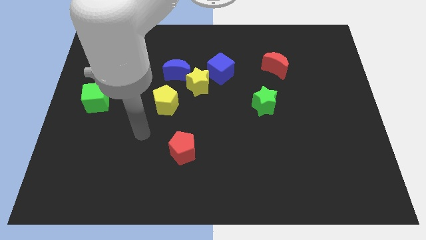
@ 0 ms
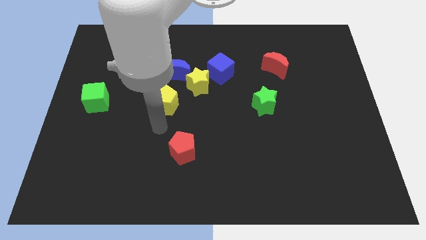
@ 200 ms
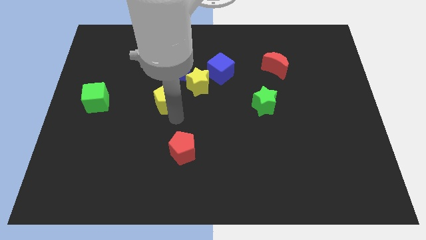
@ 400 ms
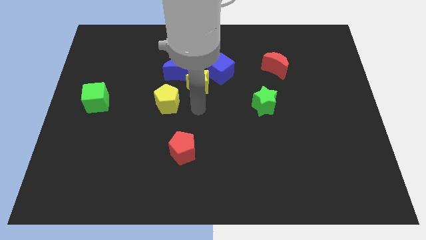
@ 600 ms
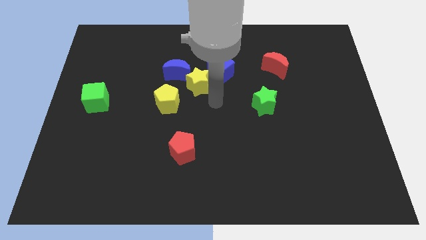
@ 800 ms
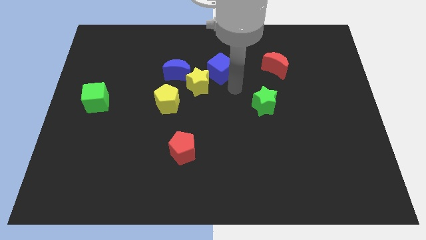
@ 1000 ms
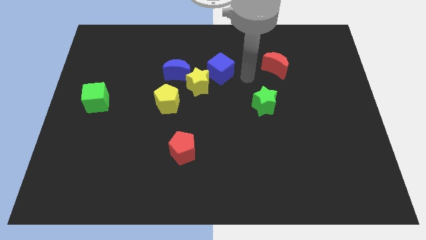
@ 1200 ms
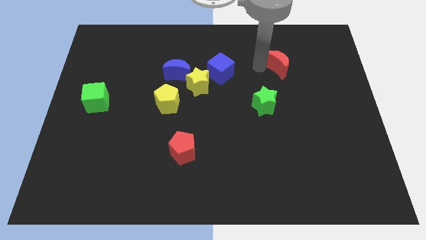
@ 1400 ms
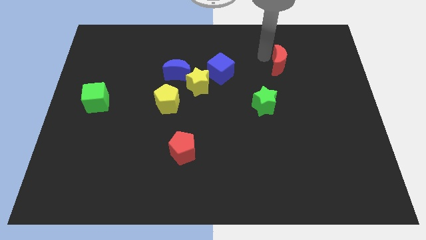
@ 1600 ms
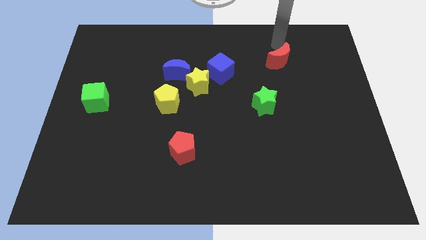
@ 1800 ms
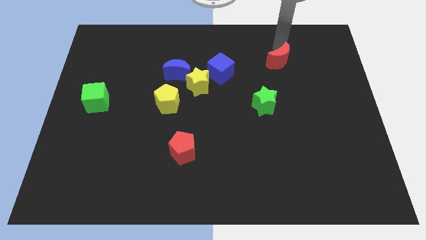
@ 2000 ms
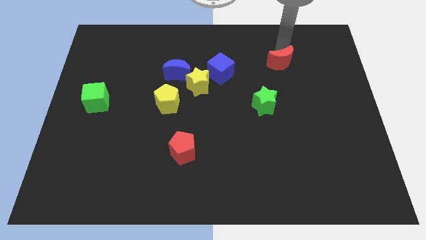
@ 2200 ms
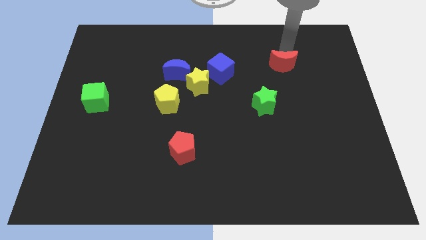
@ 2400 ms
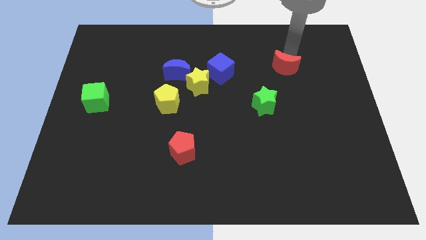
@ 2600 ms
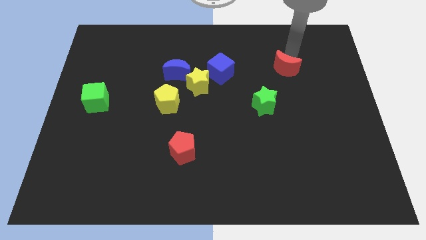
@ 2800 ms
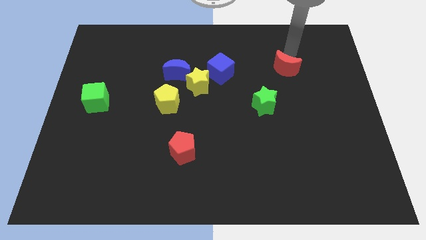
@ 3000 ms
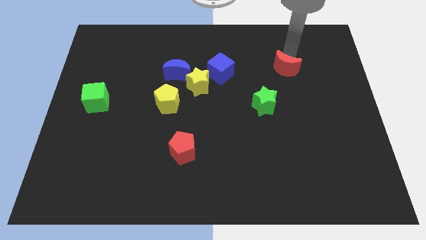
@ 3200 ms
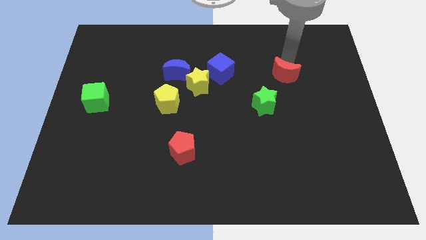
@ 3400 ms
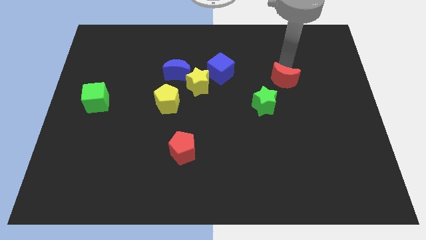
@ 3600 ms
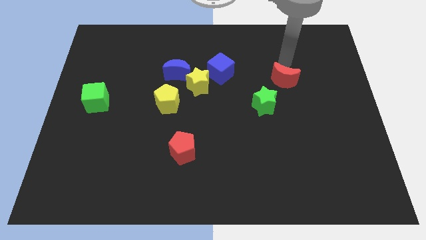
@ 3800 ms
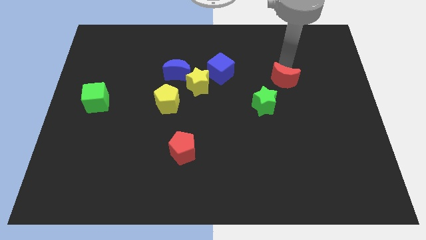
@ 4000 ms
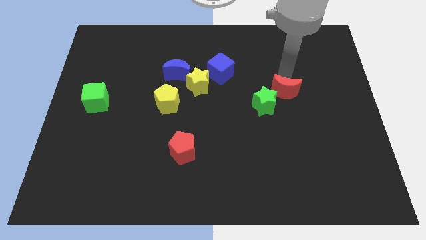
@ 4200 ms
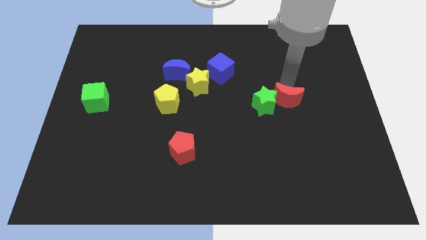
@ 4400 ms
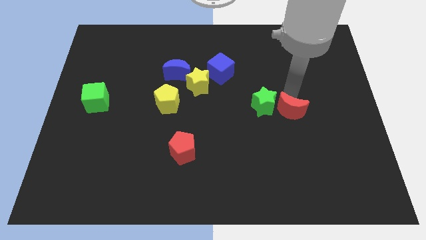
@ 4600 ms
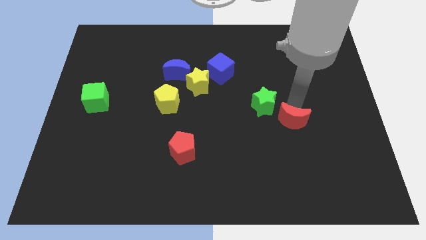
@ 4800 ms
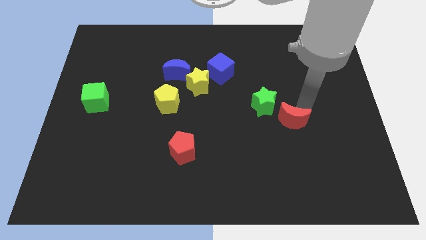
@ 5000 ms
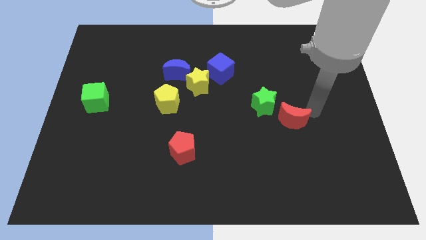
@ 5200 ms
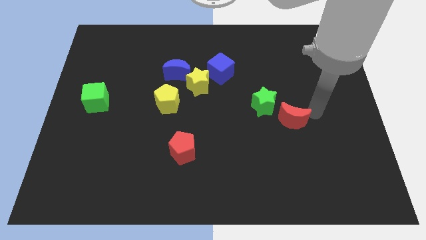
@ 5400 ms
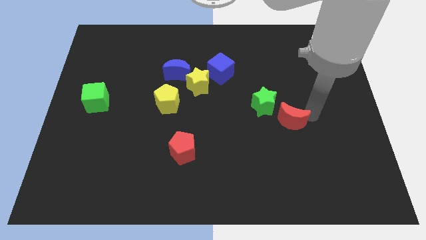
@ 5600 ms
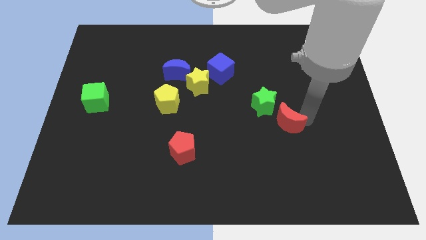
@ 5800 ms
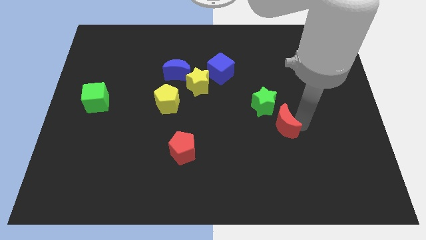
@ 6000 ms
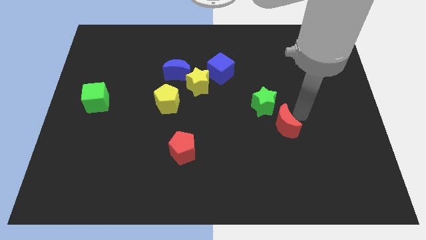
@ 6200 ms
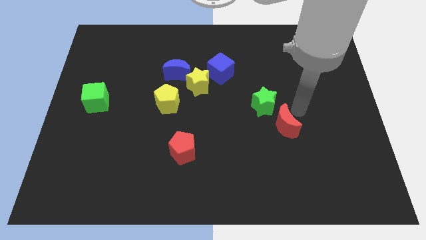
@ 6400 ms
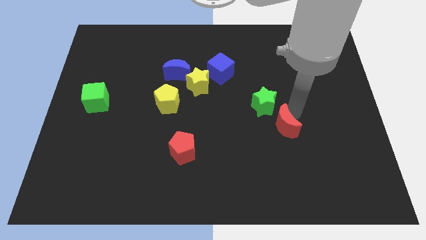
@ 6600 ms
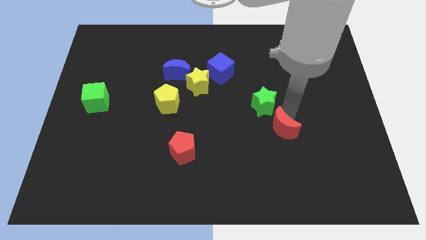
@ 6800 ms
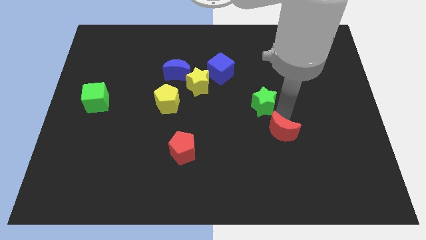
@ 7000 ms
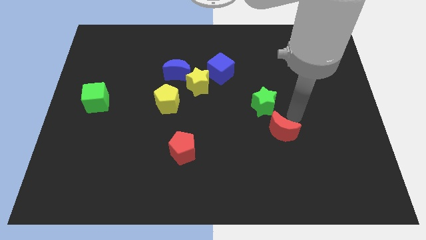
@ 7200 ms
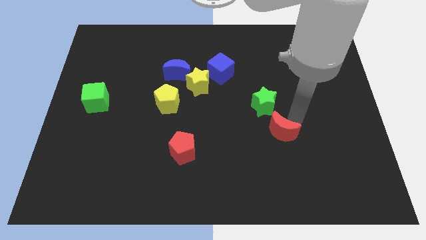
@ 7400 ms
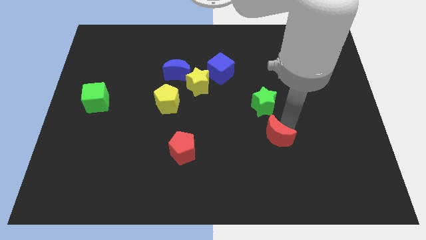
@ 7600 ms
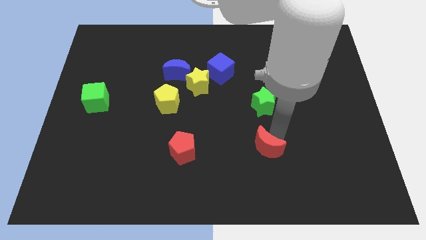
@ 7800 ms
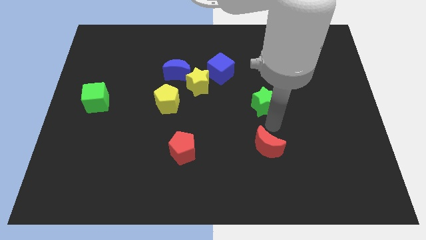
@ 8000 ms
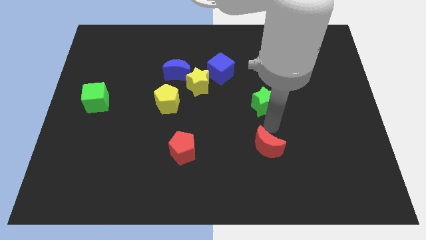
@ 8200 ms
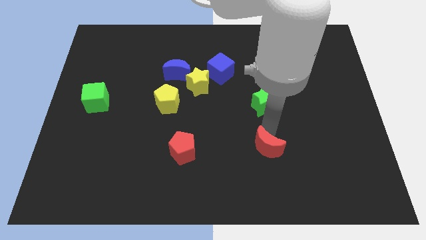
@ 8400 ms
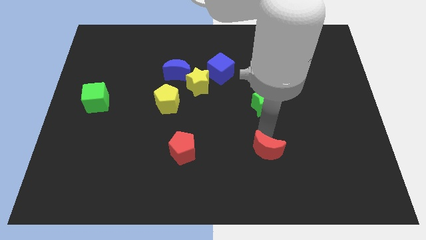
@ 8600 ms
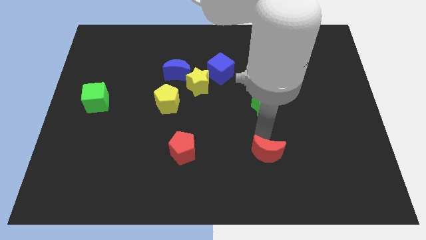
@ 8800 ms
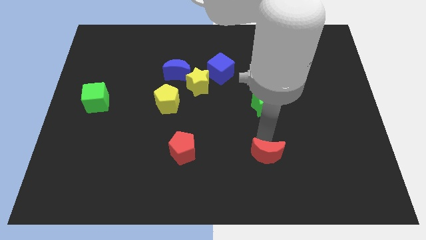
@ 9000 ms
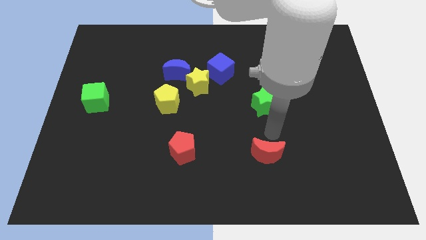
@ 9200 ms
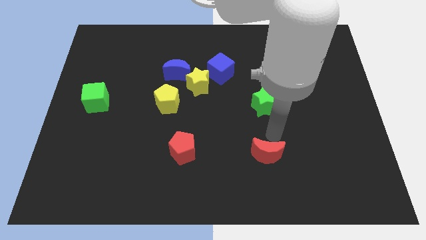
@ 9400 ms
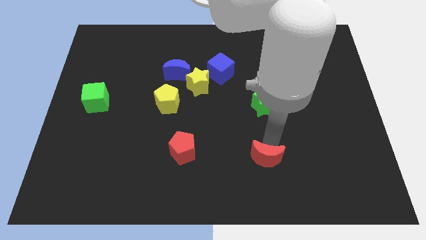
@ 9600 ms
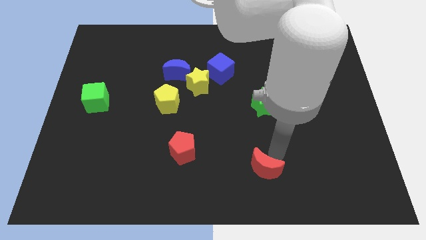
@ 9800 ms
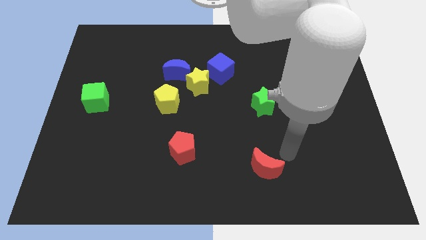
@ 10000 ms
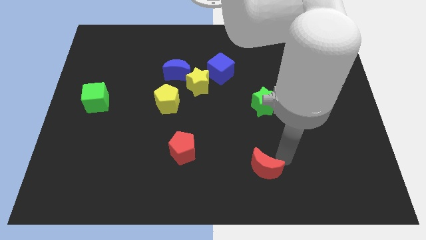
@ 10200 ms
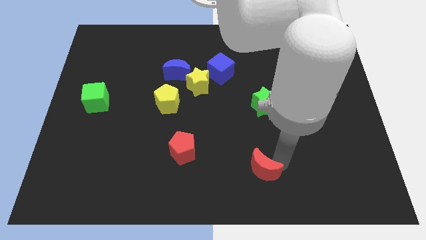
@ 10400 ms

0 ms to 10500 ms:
put the red moon to the bottom side

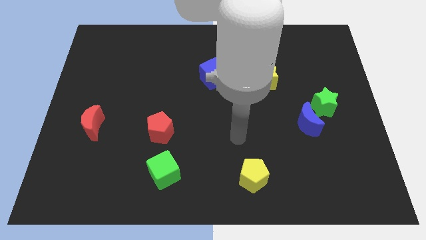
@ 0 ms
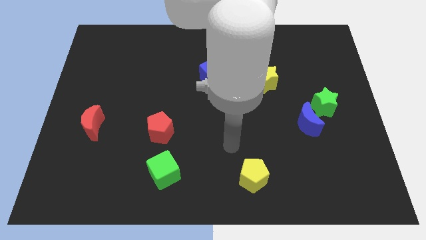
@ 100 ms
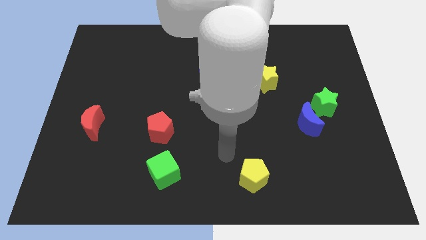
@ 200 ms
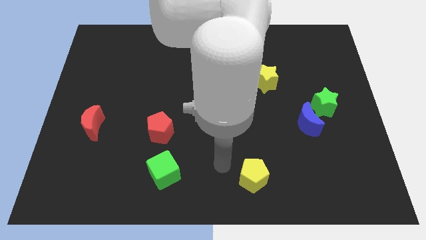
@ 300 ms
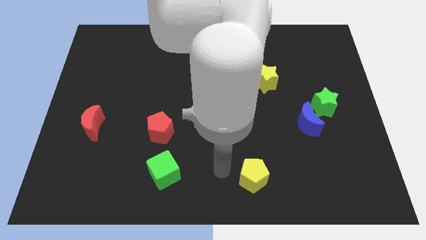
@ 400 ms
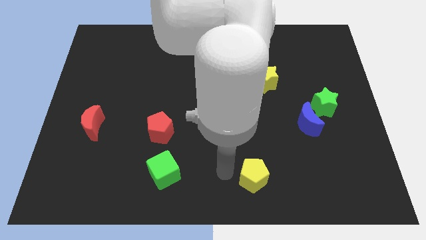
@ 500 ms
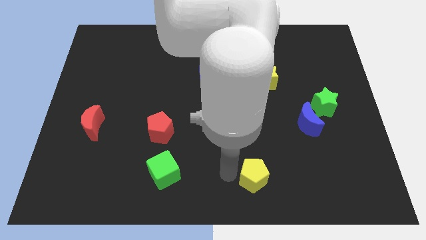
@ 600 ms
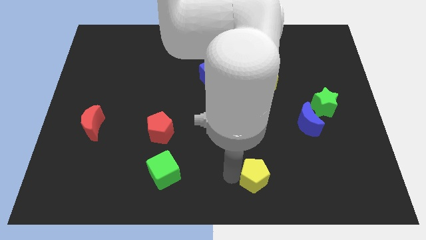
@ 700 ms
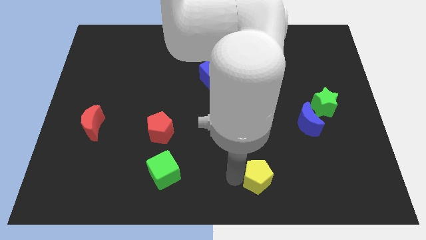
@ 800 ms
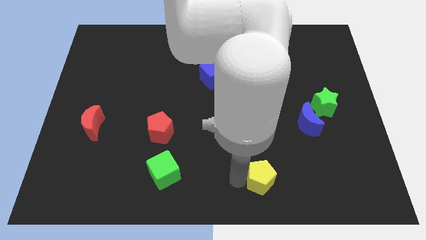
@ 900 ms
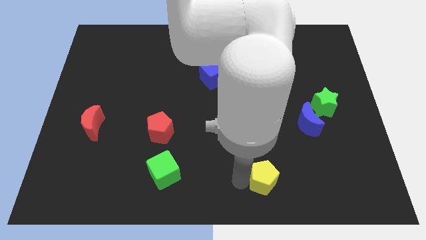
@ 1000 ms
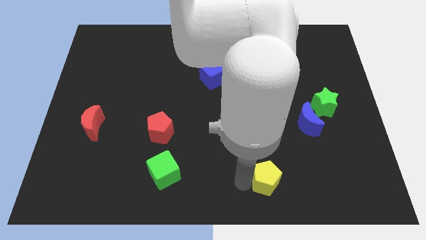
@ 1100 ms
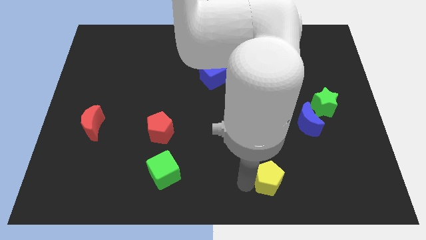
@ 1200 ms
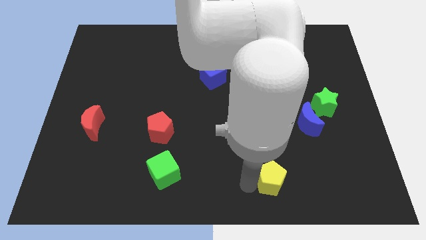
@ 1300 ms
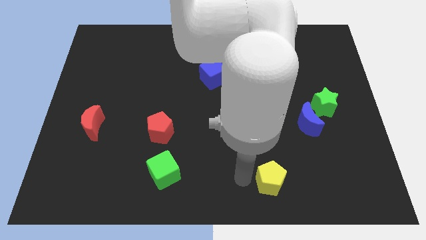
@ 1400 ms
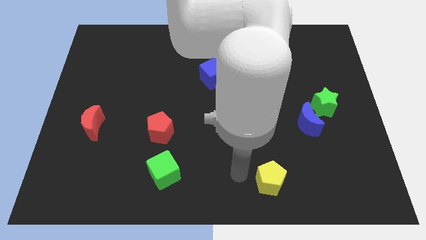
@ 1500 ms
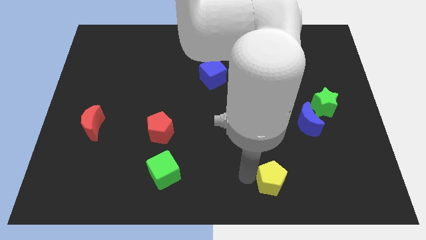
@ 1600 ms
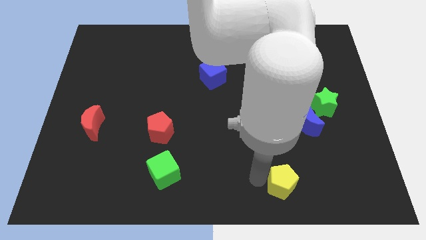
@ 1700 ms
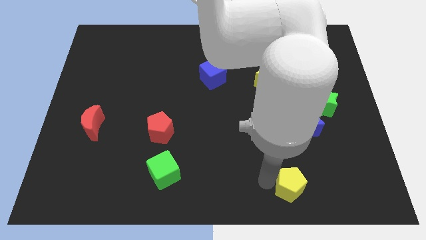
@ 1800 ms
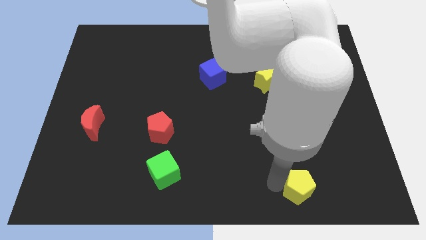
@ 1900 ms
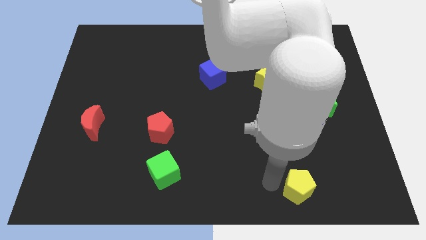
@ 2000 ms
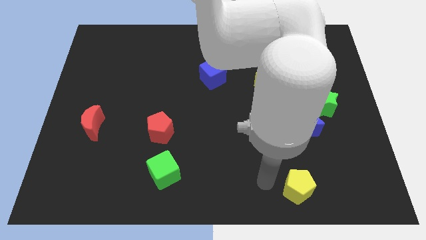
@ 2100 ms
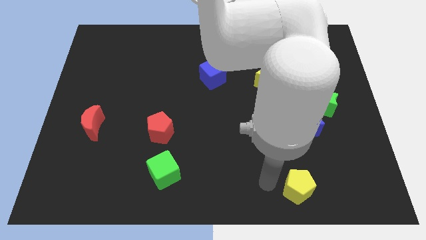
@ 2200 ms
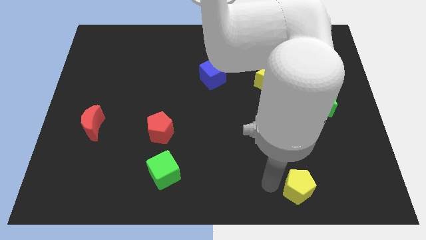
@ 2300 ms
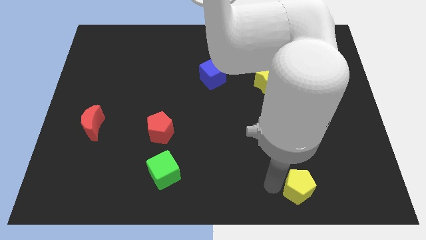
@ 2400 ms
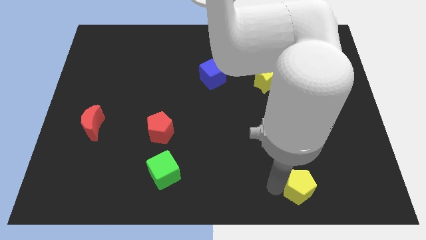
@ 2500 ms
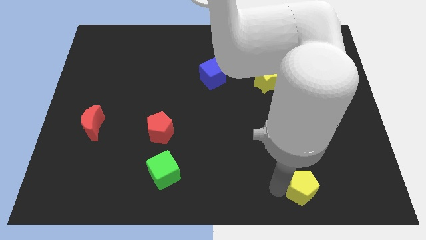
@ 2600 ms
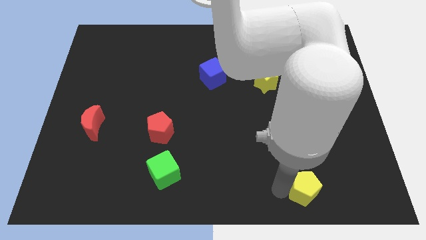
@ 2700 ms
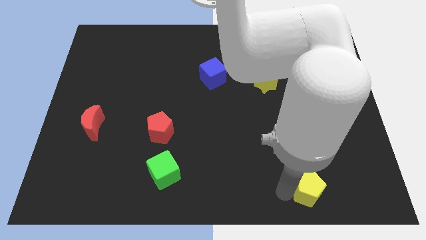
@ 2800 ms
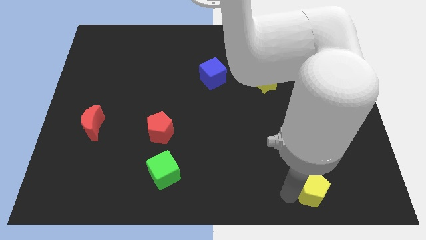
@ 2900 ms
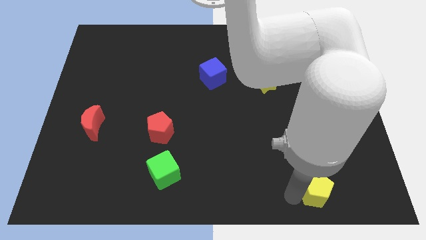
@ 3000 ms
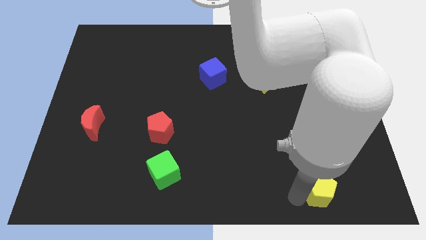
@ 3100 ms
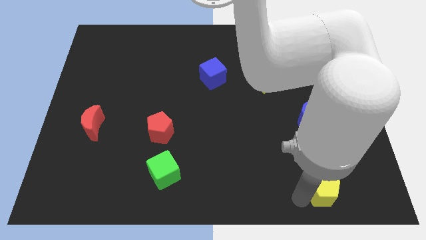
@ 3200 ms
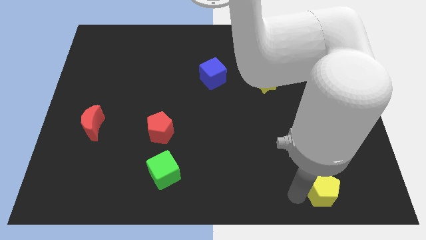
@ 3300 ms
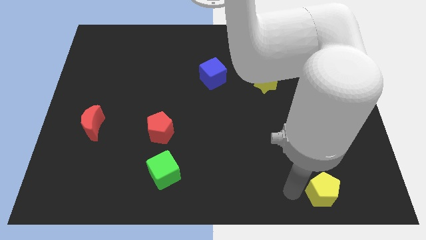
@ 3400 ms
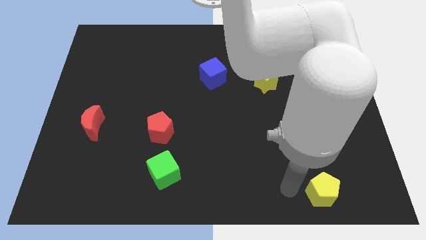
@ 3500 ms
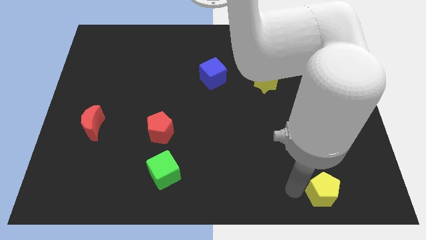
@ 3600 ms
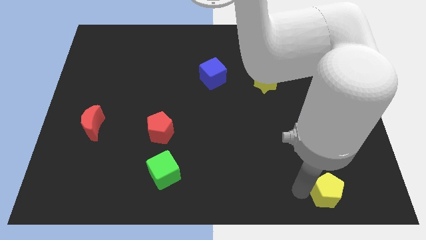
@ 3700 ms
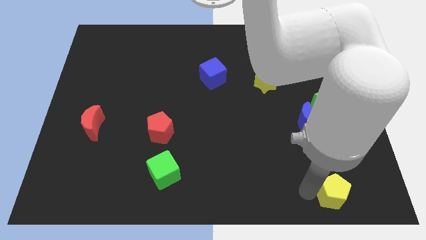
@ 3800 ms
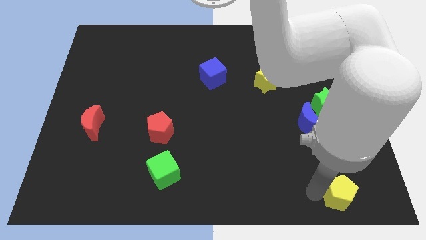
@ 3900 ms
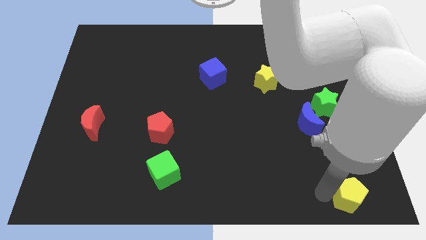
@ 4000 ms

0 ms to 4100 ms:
move the yellow pentagon to the bottom right of the board
